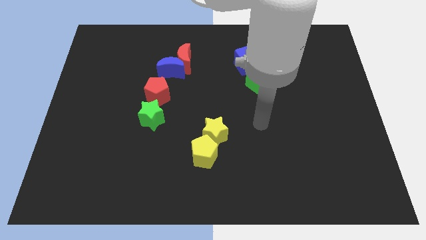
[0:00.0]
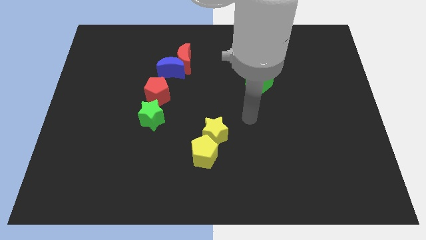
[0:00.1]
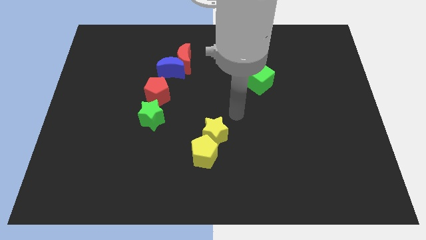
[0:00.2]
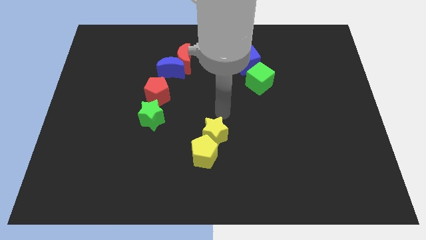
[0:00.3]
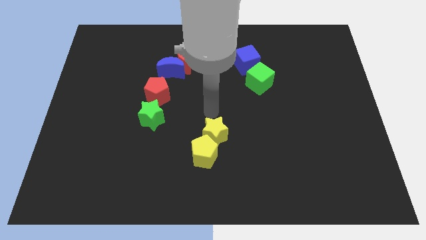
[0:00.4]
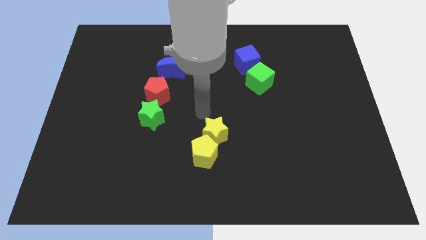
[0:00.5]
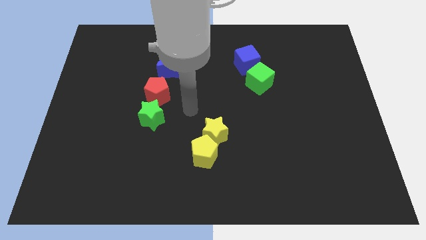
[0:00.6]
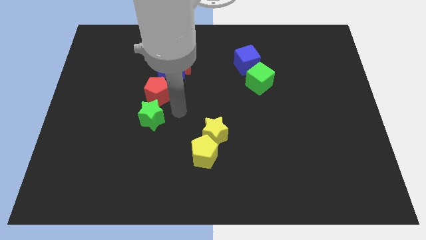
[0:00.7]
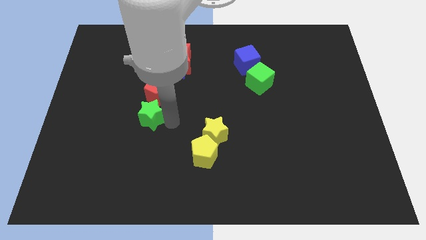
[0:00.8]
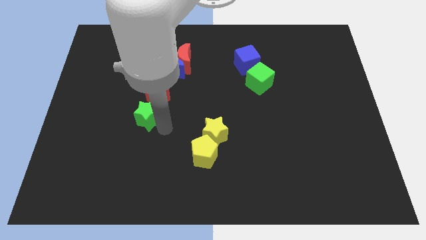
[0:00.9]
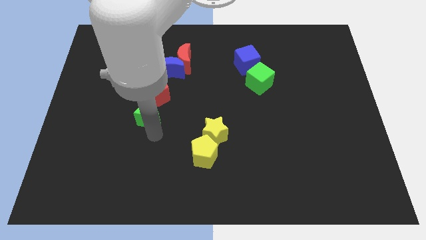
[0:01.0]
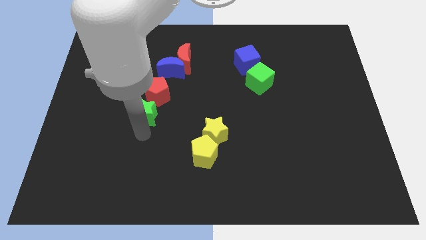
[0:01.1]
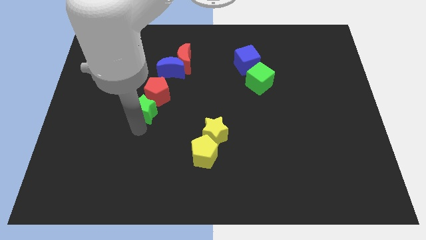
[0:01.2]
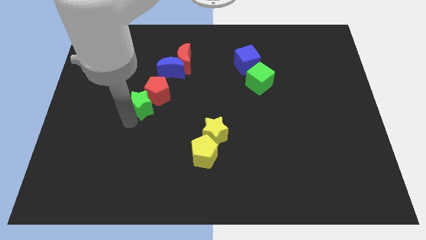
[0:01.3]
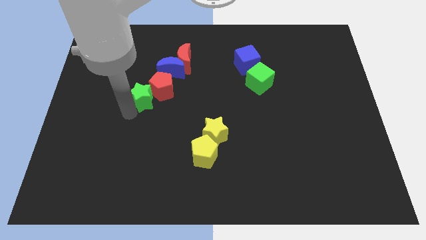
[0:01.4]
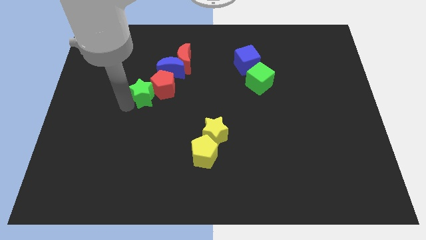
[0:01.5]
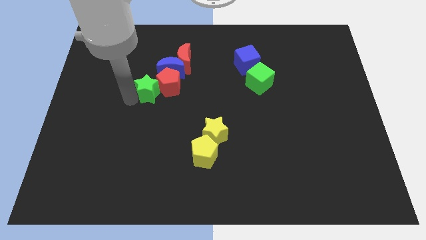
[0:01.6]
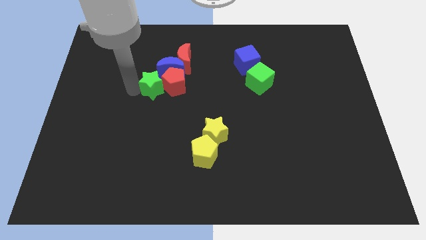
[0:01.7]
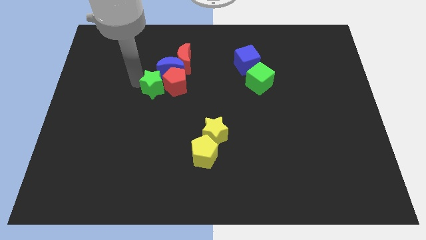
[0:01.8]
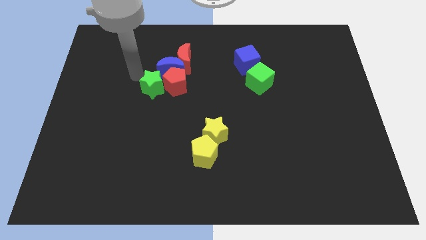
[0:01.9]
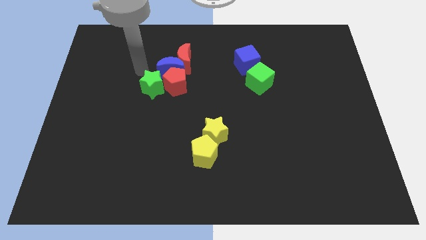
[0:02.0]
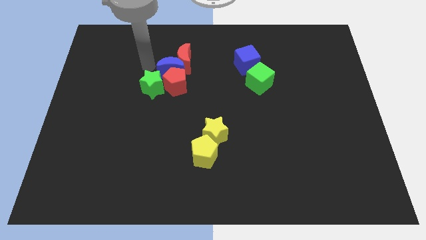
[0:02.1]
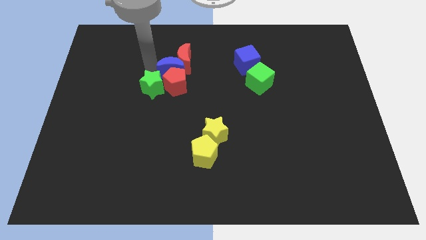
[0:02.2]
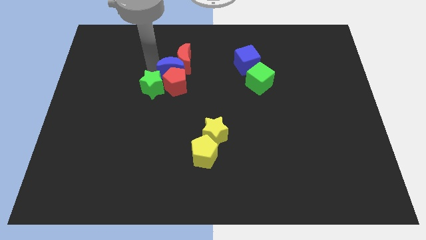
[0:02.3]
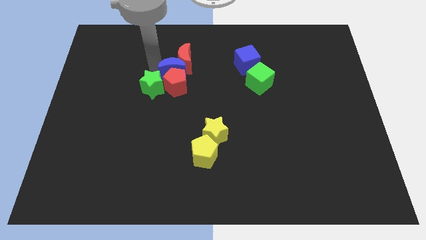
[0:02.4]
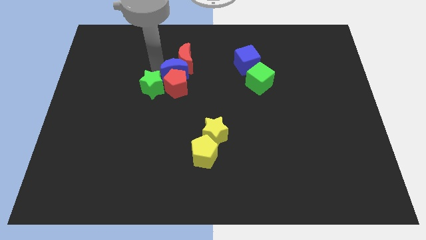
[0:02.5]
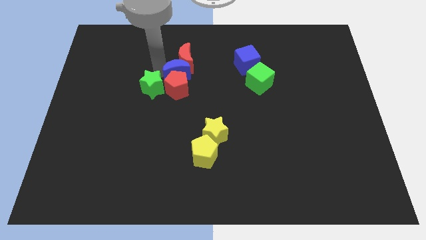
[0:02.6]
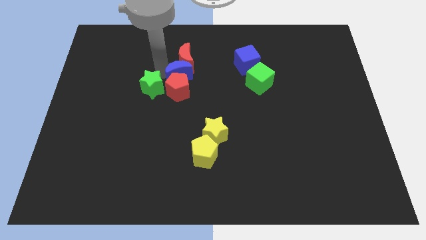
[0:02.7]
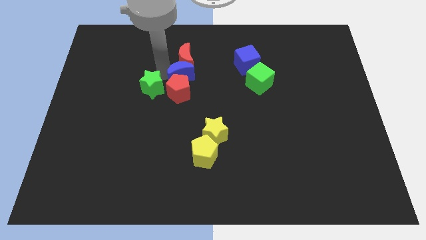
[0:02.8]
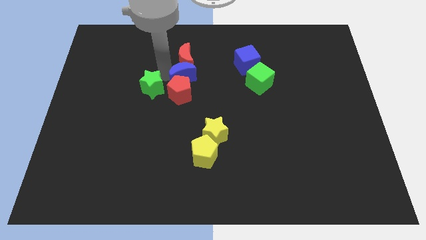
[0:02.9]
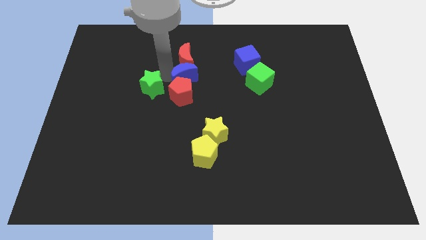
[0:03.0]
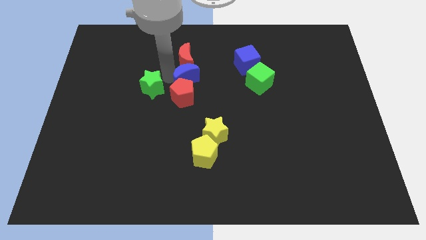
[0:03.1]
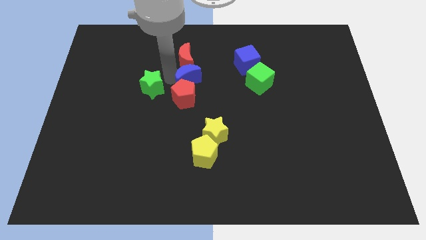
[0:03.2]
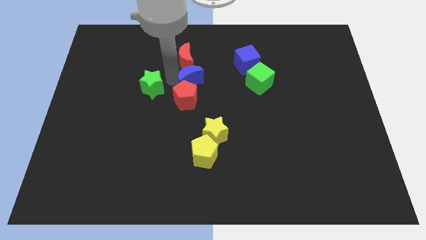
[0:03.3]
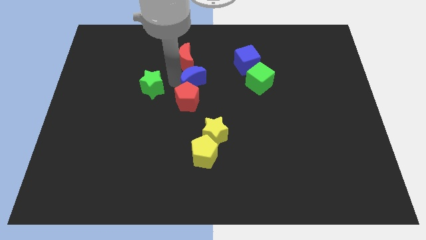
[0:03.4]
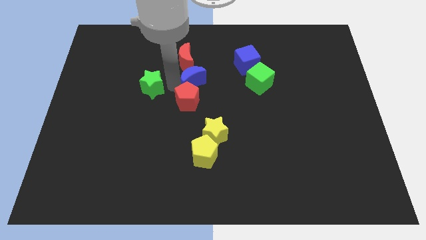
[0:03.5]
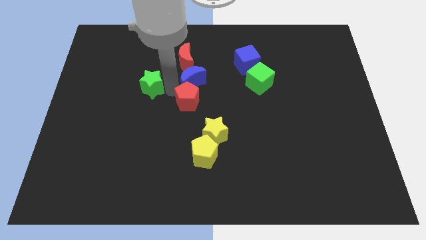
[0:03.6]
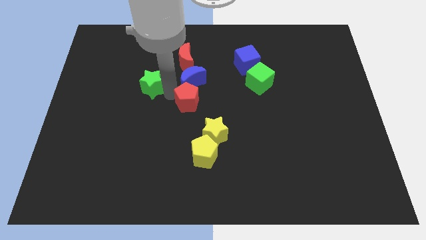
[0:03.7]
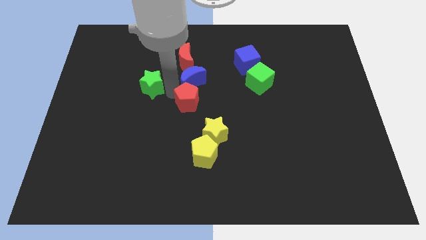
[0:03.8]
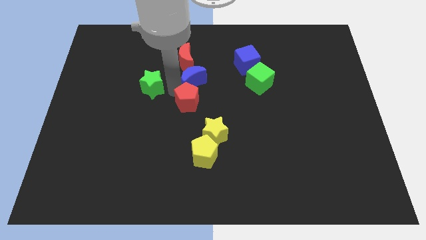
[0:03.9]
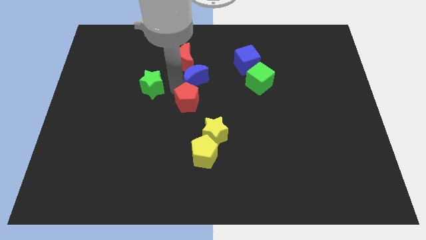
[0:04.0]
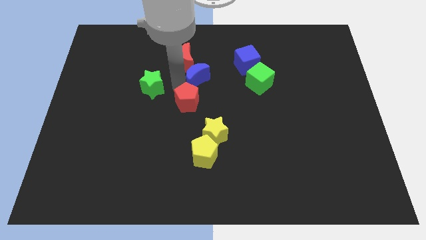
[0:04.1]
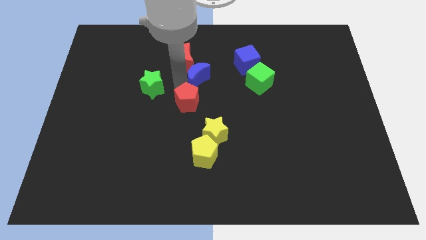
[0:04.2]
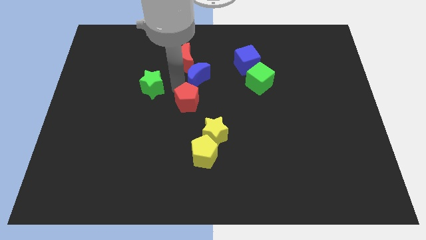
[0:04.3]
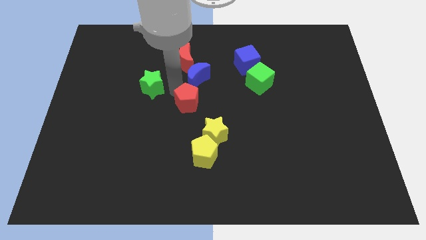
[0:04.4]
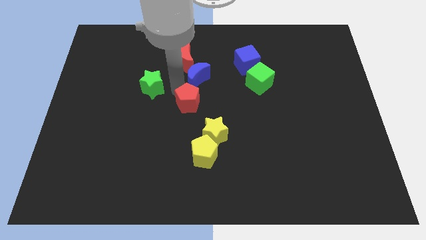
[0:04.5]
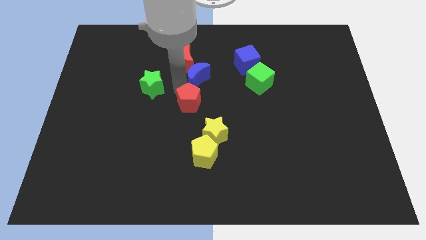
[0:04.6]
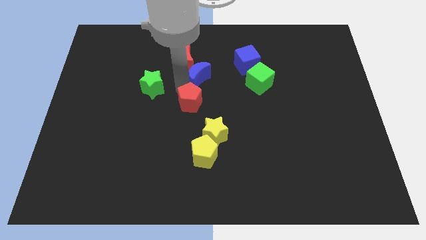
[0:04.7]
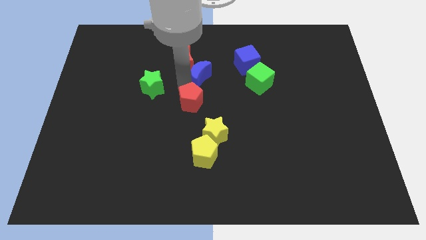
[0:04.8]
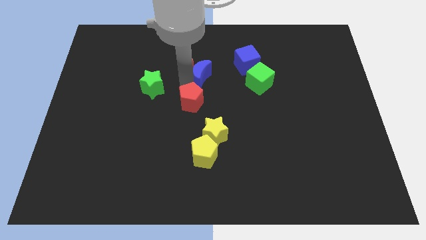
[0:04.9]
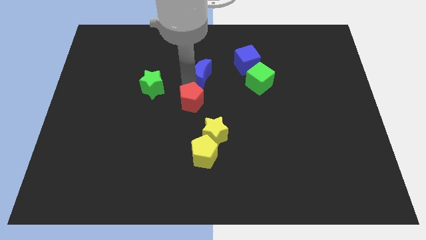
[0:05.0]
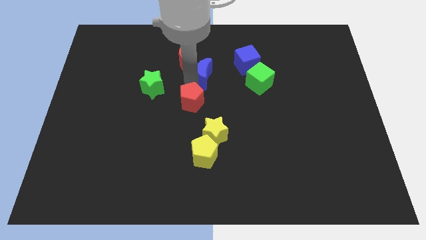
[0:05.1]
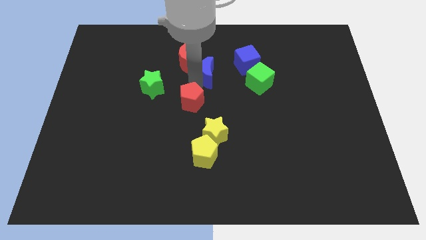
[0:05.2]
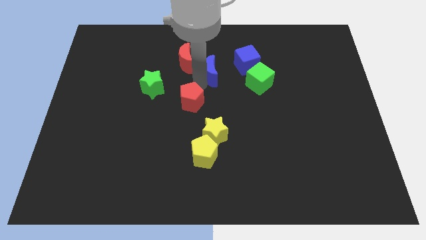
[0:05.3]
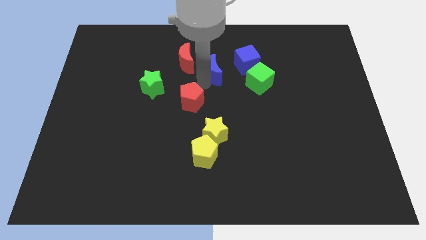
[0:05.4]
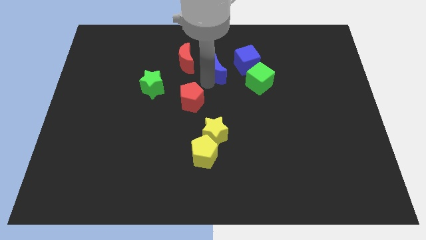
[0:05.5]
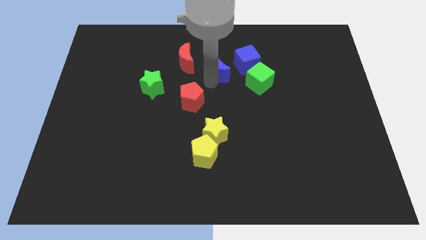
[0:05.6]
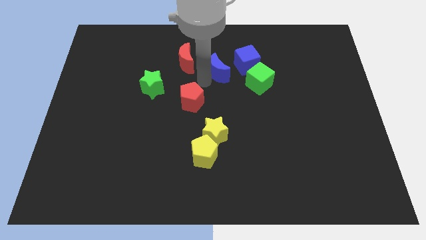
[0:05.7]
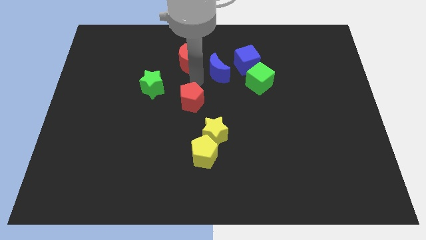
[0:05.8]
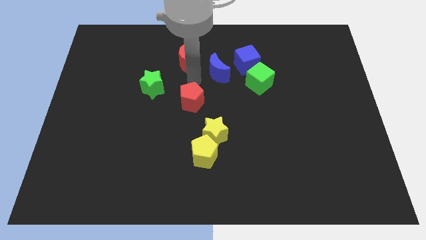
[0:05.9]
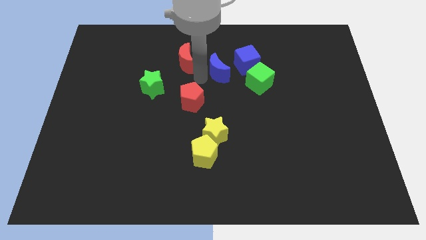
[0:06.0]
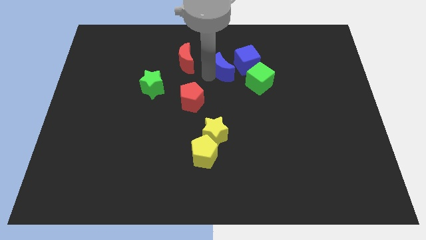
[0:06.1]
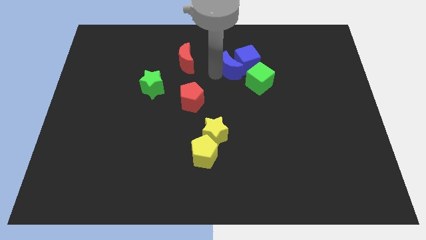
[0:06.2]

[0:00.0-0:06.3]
slide the blue moon to the blue cube

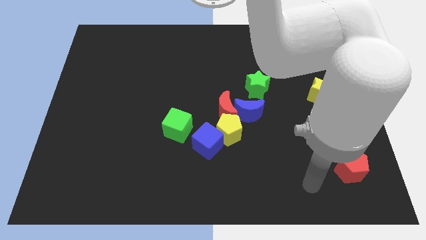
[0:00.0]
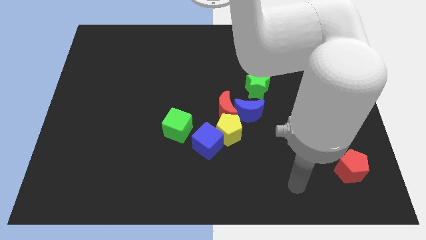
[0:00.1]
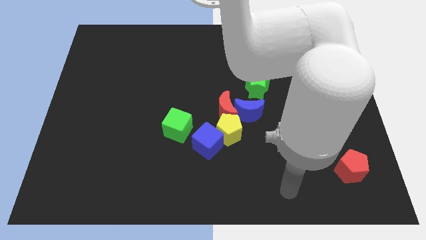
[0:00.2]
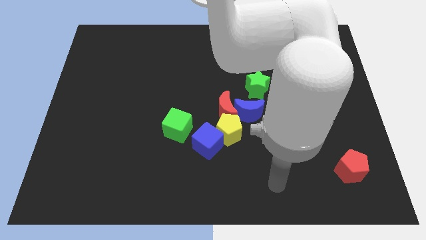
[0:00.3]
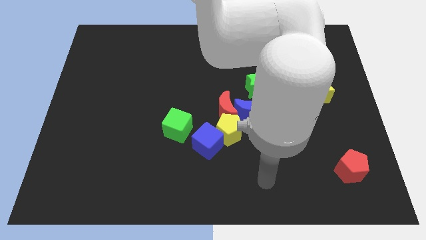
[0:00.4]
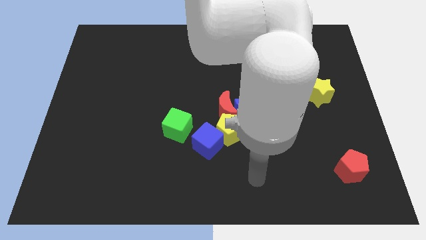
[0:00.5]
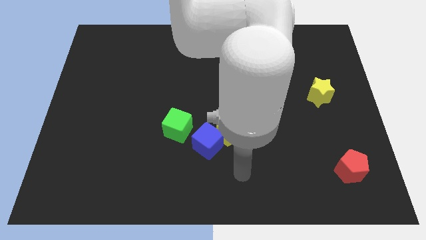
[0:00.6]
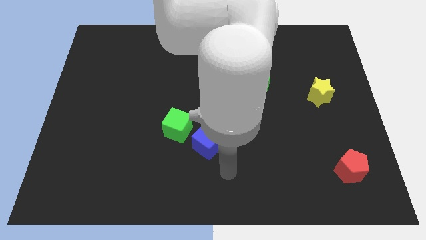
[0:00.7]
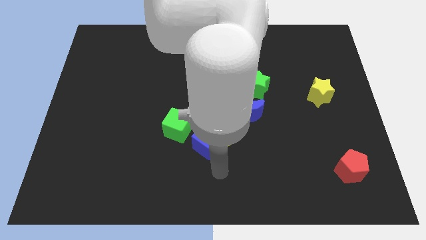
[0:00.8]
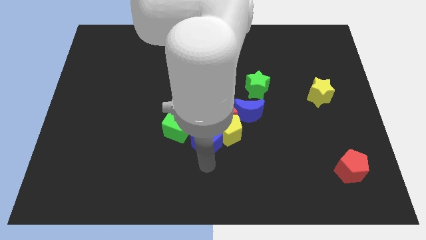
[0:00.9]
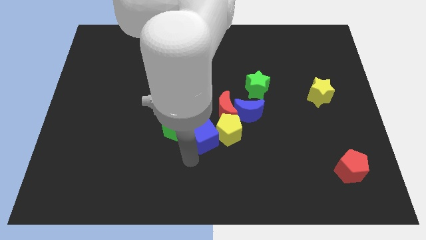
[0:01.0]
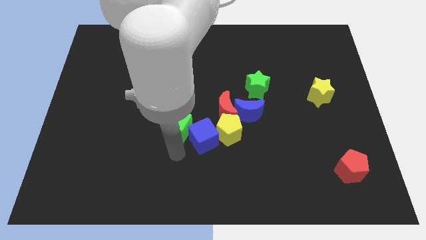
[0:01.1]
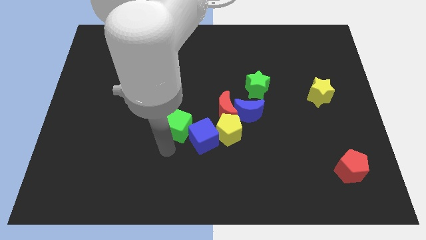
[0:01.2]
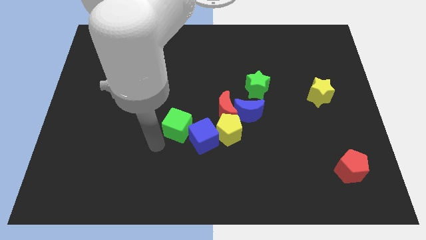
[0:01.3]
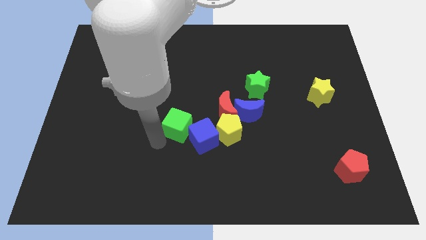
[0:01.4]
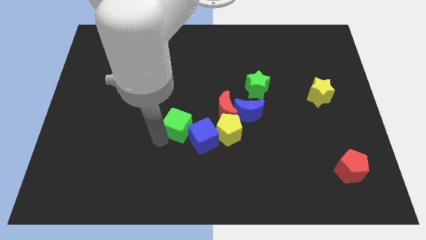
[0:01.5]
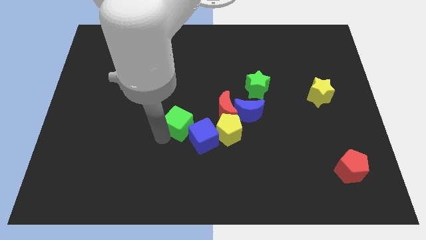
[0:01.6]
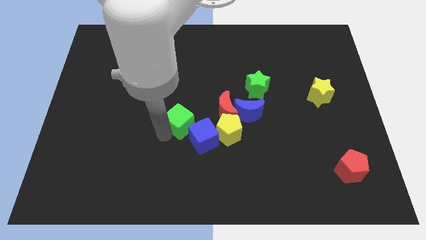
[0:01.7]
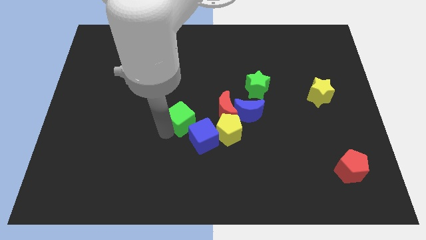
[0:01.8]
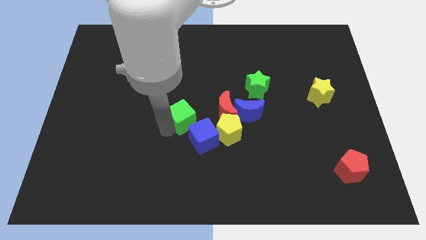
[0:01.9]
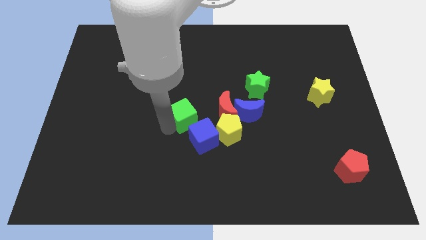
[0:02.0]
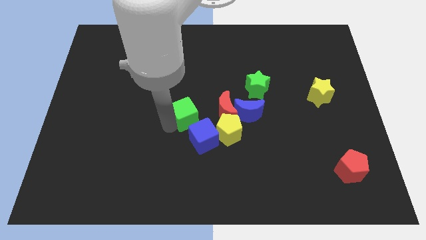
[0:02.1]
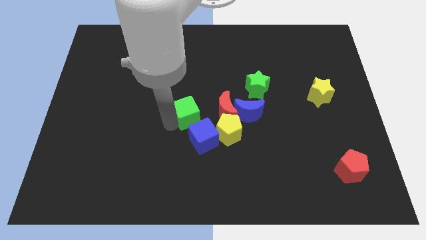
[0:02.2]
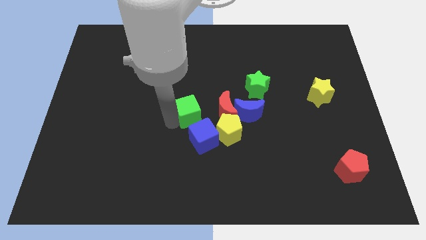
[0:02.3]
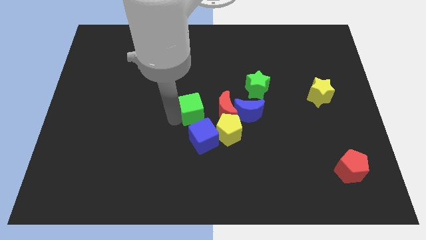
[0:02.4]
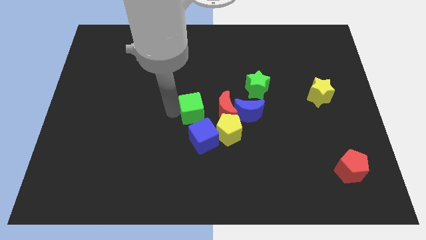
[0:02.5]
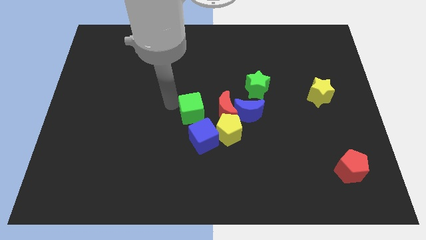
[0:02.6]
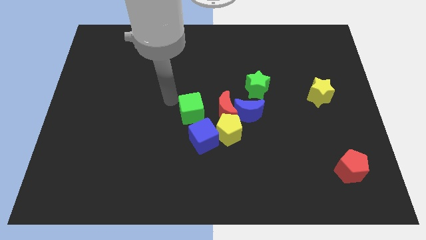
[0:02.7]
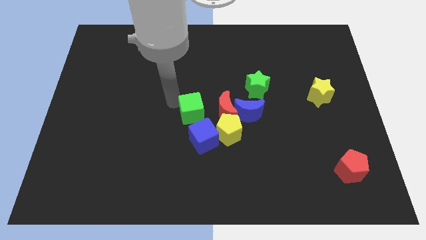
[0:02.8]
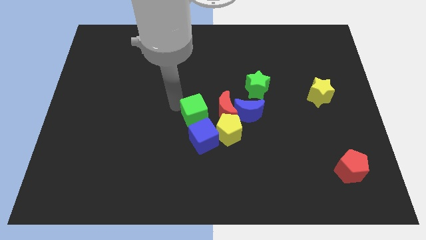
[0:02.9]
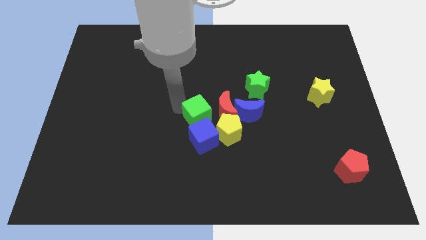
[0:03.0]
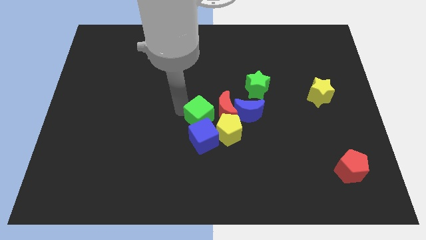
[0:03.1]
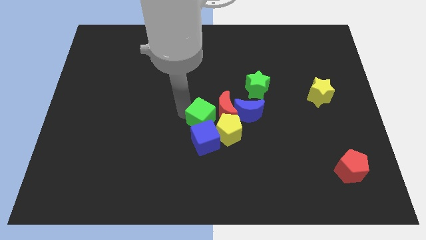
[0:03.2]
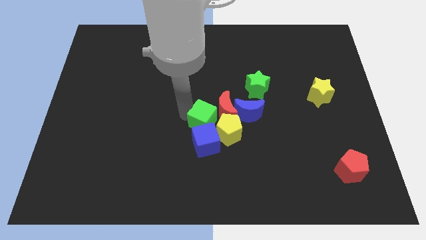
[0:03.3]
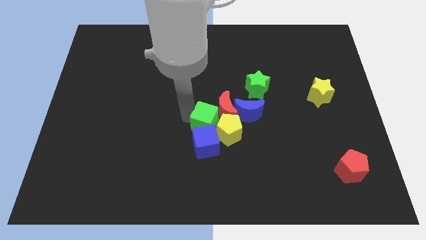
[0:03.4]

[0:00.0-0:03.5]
move the green cube close to the yellow pentagon
